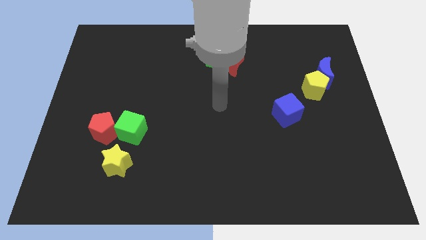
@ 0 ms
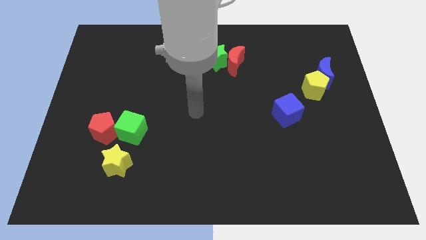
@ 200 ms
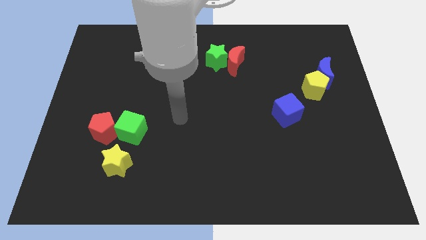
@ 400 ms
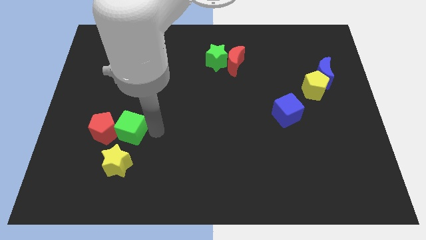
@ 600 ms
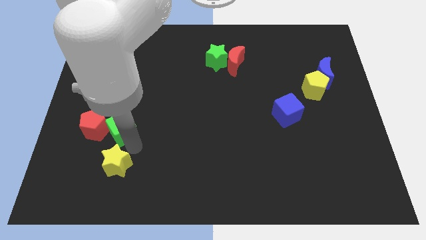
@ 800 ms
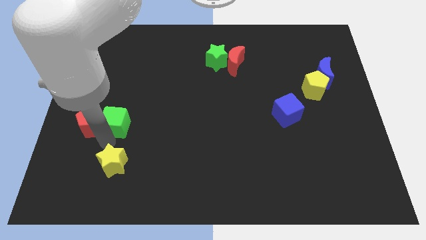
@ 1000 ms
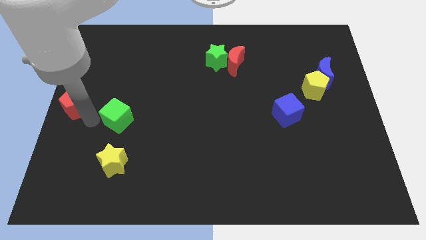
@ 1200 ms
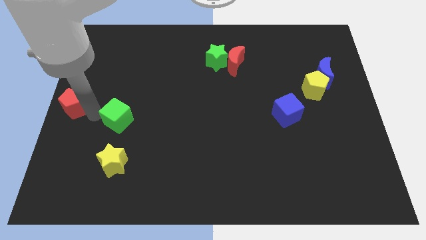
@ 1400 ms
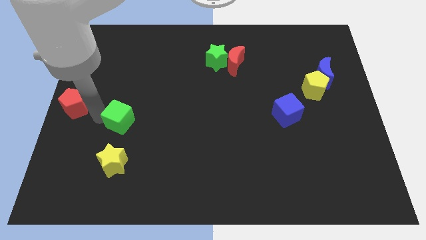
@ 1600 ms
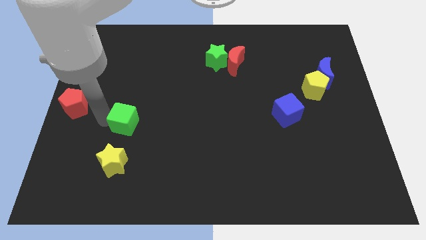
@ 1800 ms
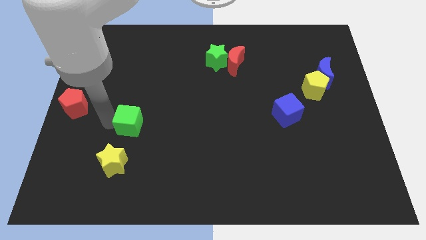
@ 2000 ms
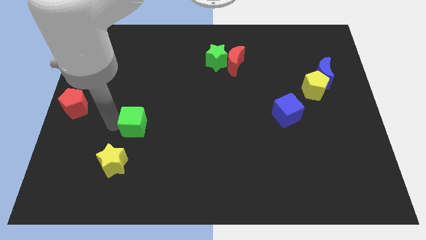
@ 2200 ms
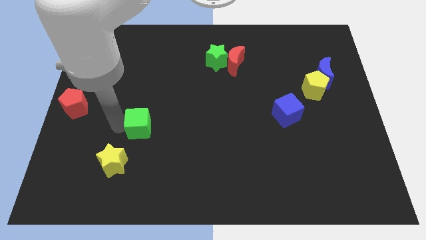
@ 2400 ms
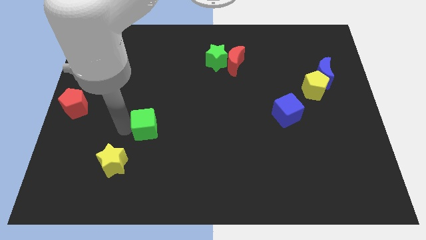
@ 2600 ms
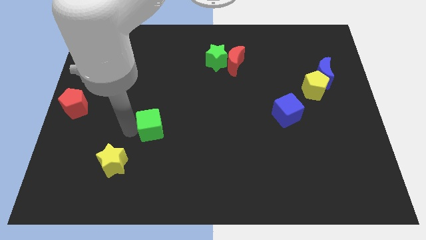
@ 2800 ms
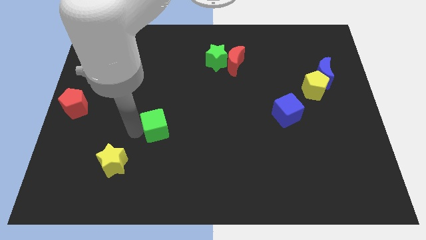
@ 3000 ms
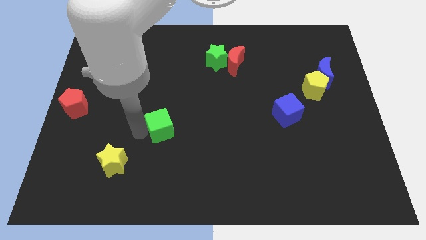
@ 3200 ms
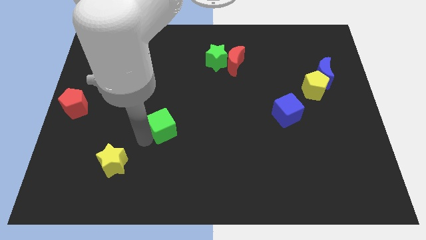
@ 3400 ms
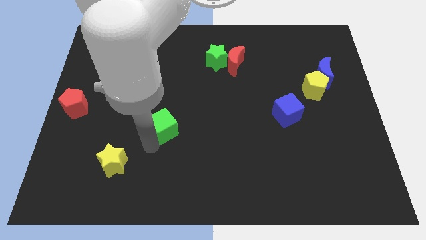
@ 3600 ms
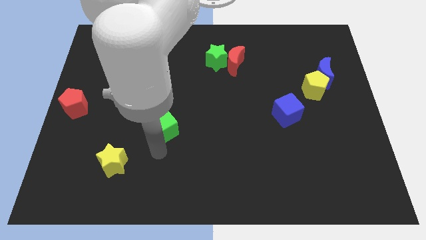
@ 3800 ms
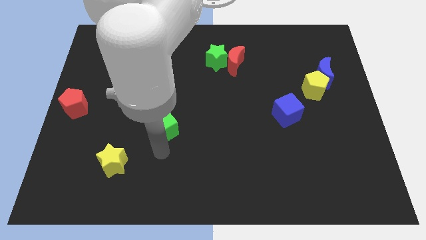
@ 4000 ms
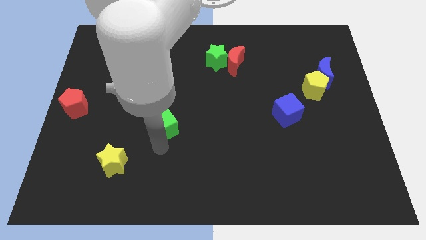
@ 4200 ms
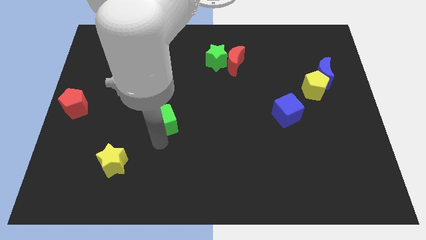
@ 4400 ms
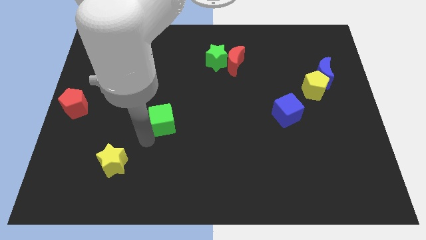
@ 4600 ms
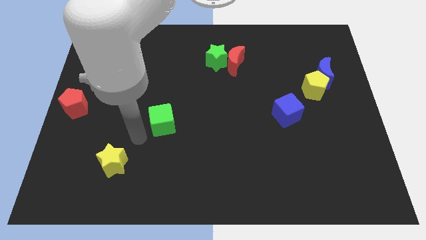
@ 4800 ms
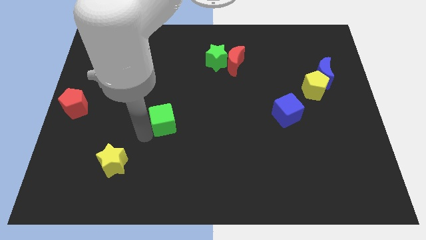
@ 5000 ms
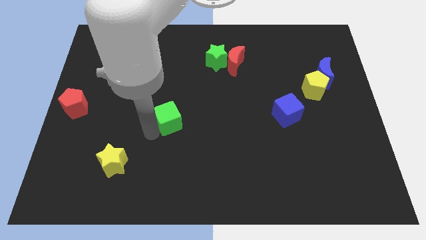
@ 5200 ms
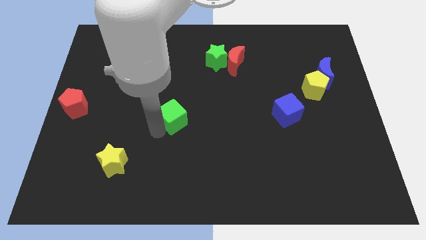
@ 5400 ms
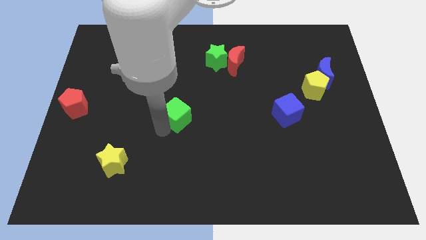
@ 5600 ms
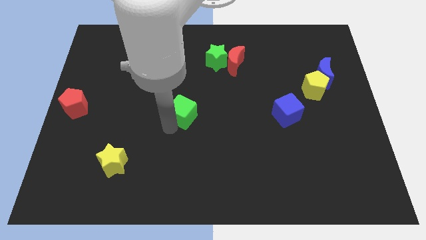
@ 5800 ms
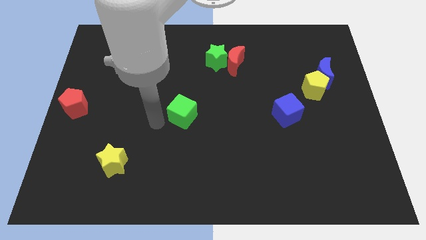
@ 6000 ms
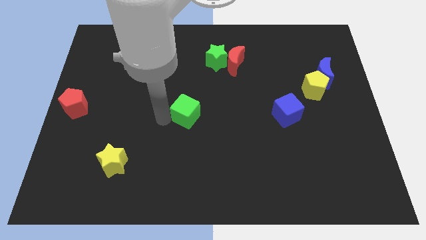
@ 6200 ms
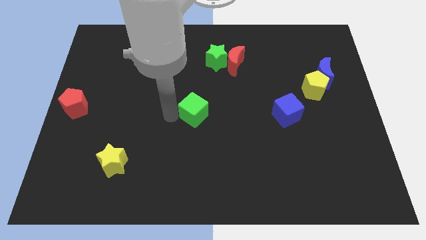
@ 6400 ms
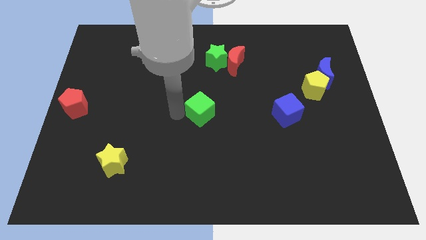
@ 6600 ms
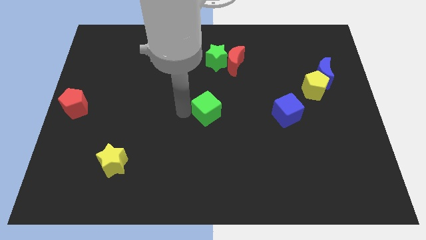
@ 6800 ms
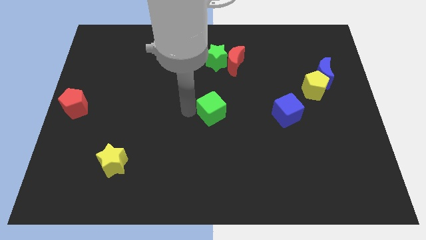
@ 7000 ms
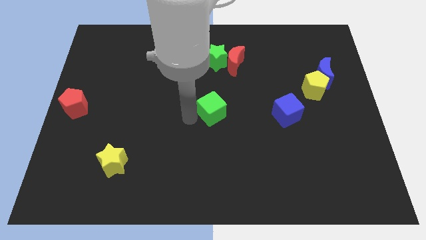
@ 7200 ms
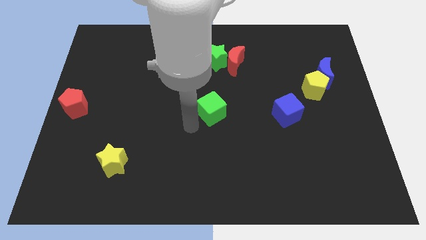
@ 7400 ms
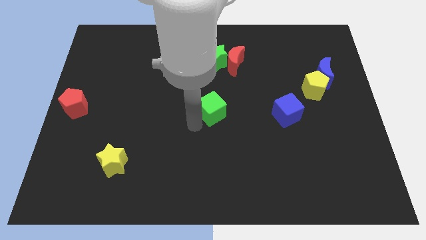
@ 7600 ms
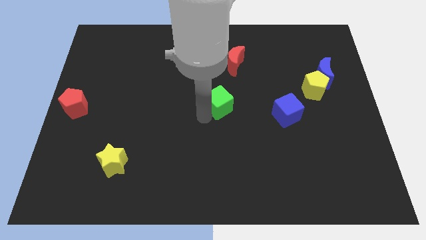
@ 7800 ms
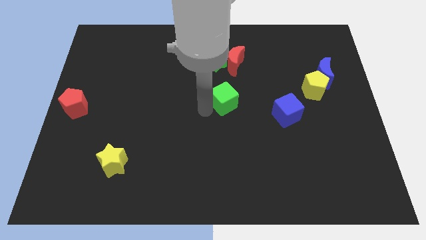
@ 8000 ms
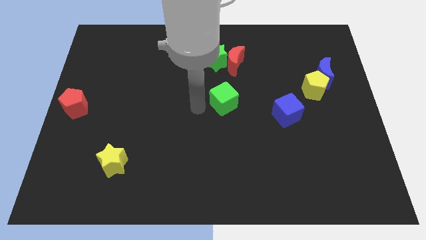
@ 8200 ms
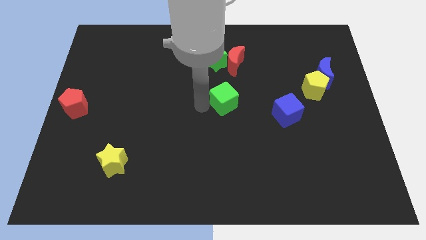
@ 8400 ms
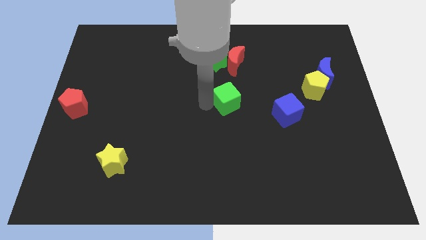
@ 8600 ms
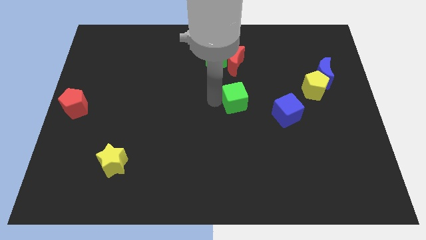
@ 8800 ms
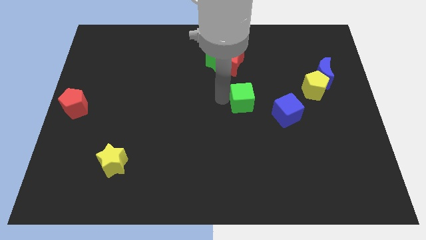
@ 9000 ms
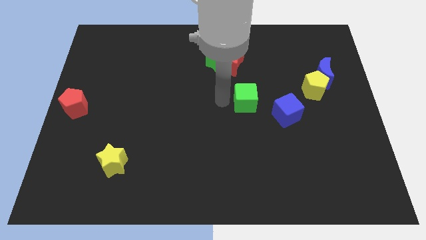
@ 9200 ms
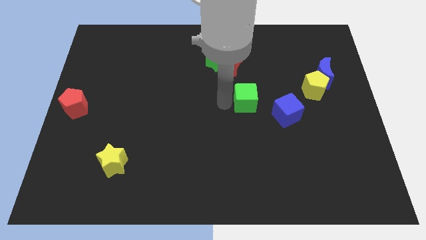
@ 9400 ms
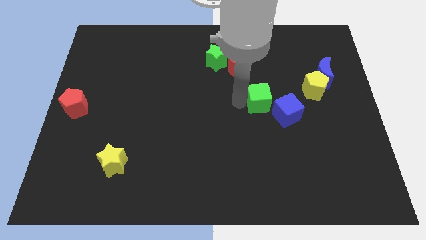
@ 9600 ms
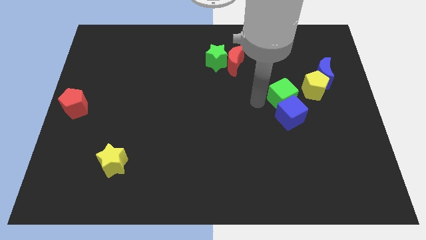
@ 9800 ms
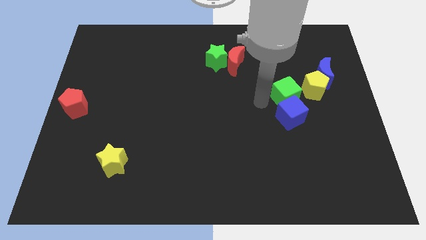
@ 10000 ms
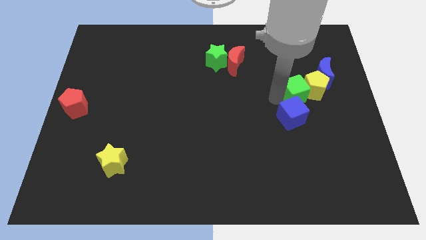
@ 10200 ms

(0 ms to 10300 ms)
move the green cube to the yellow pentagon

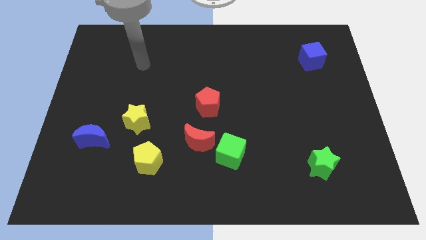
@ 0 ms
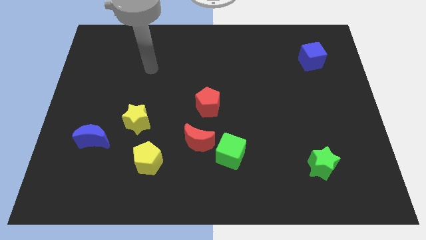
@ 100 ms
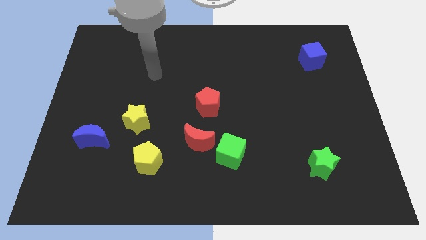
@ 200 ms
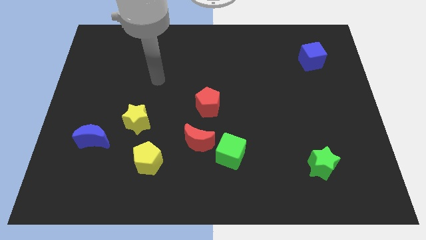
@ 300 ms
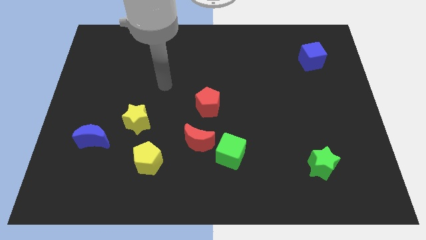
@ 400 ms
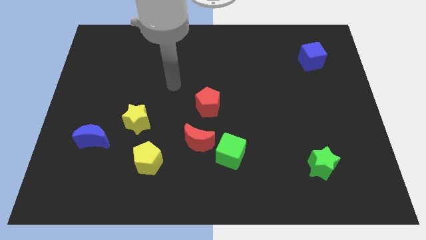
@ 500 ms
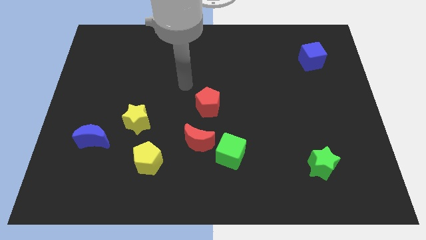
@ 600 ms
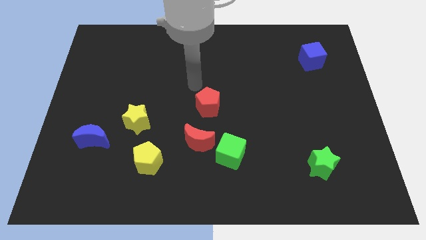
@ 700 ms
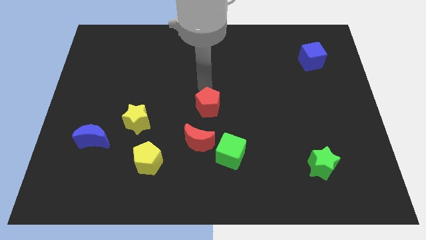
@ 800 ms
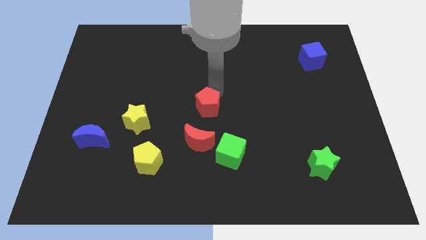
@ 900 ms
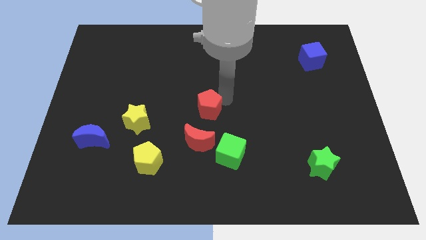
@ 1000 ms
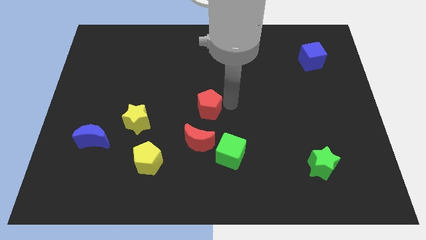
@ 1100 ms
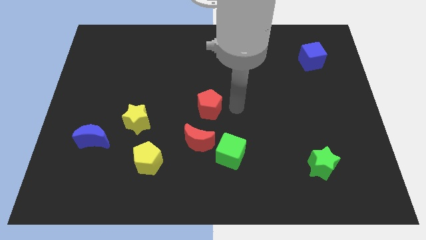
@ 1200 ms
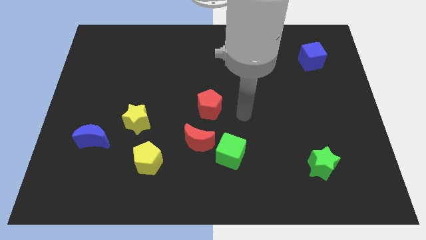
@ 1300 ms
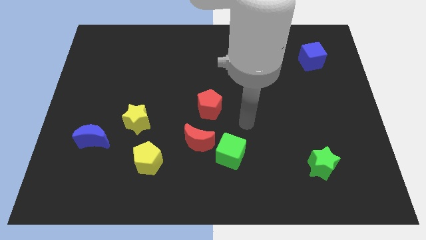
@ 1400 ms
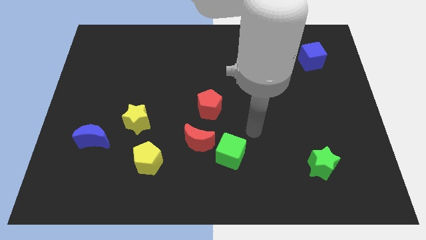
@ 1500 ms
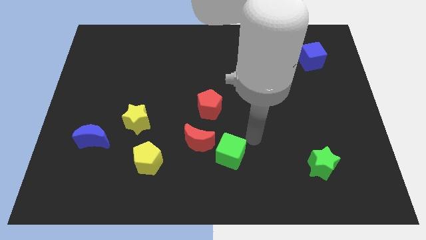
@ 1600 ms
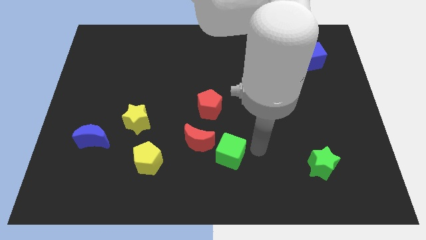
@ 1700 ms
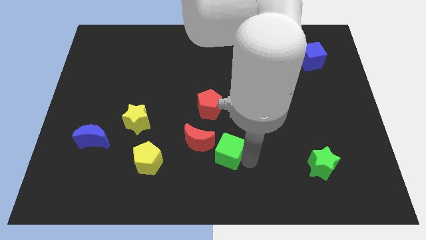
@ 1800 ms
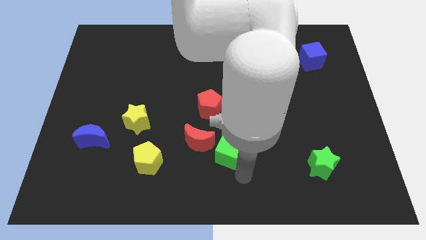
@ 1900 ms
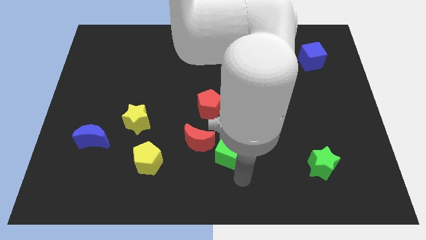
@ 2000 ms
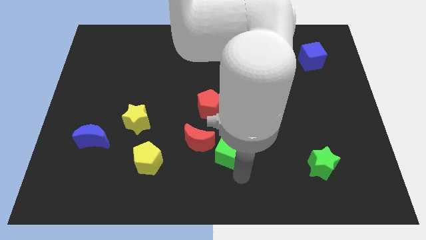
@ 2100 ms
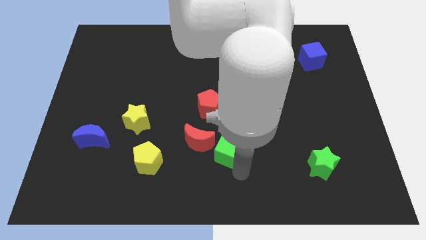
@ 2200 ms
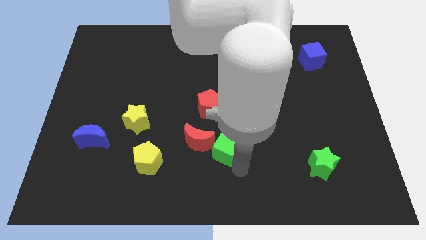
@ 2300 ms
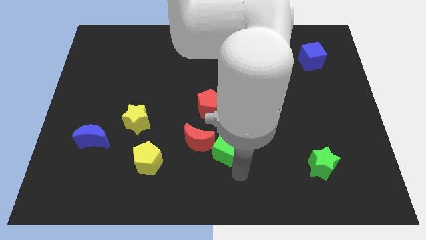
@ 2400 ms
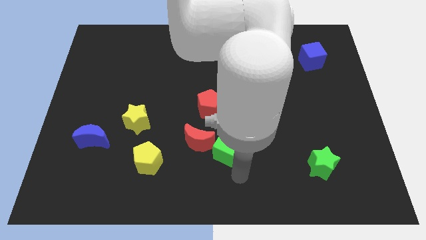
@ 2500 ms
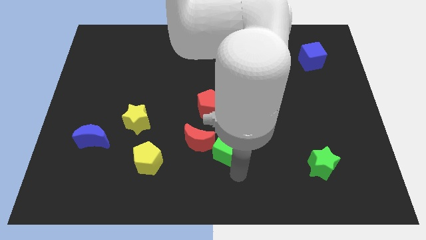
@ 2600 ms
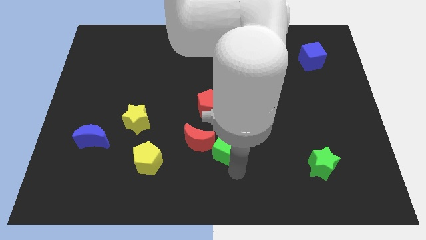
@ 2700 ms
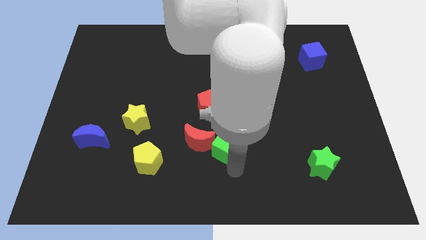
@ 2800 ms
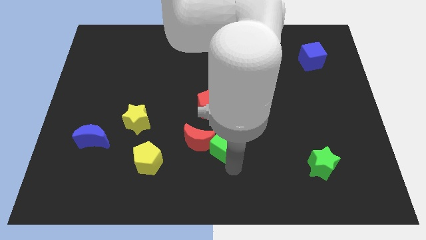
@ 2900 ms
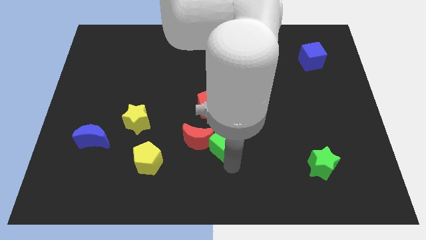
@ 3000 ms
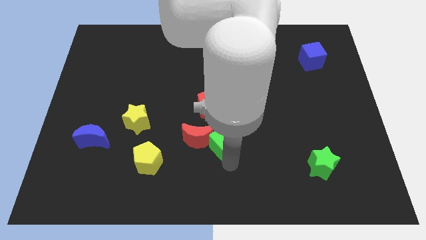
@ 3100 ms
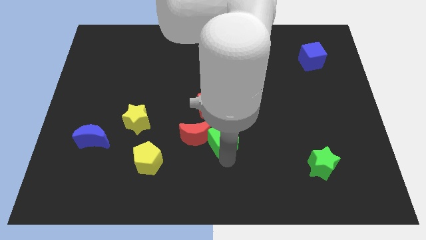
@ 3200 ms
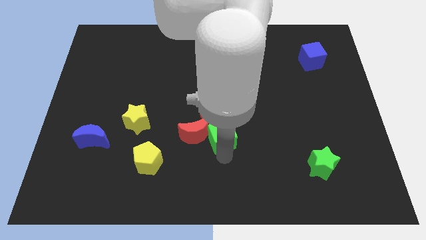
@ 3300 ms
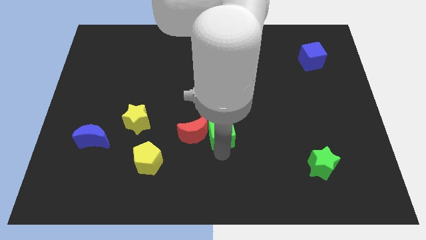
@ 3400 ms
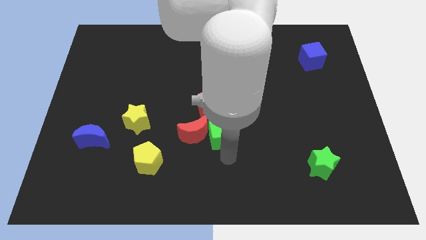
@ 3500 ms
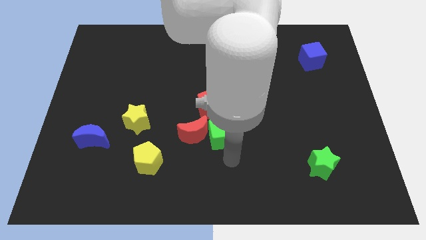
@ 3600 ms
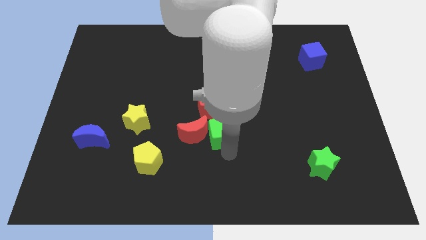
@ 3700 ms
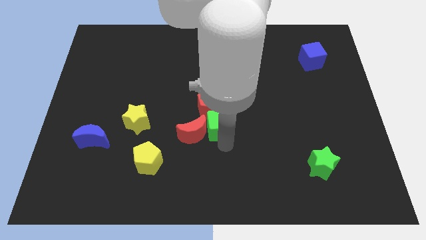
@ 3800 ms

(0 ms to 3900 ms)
slide the green cube close to the red pentagon
